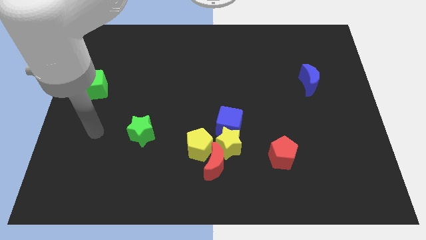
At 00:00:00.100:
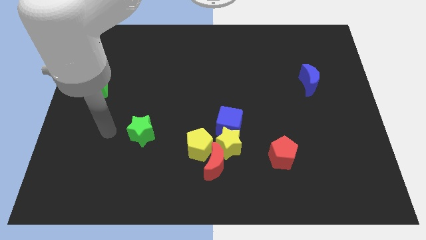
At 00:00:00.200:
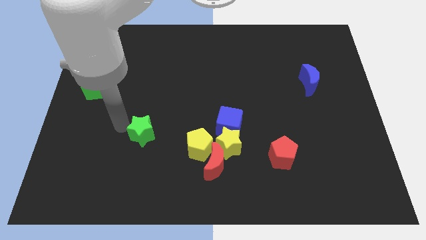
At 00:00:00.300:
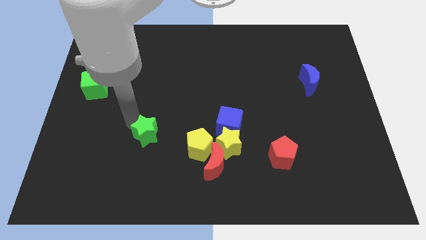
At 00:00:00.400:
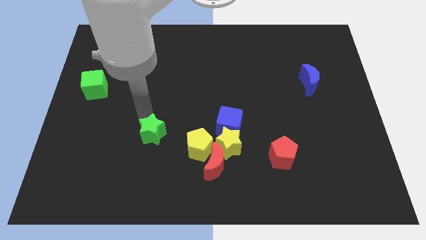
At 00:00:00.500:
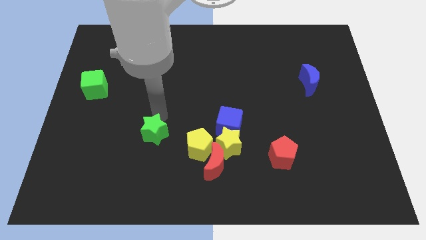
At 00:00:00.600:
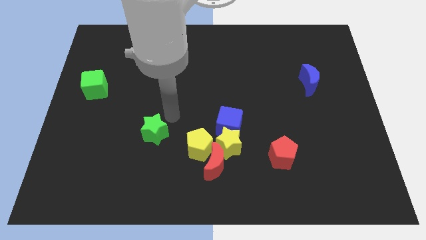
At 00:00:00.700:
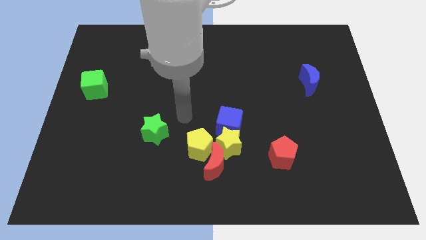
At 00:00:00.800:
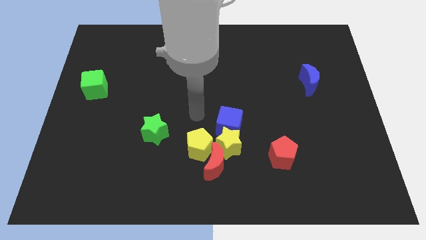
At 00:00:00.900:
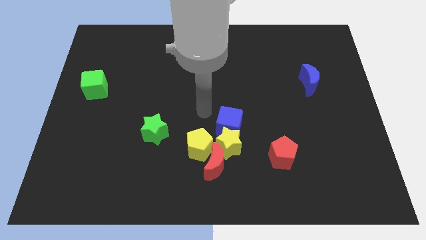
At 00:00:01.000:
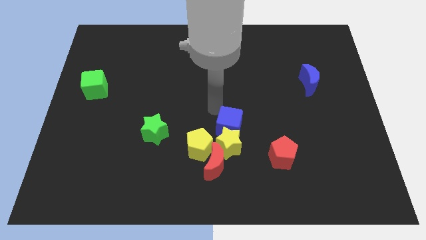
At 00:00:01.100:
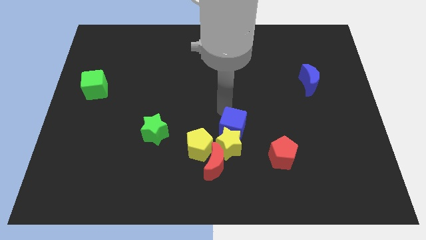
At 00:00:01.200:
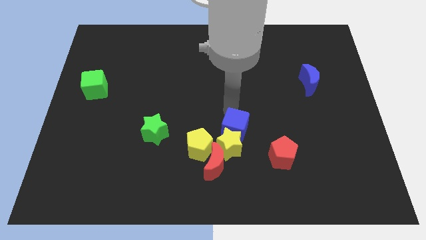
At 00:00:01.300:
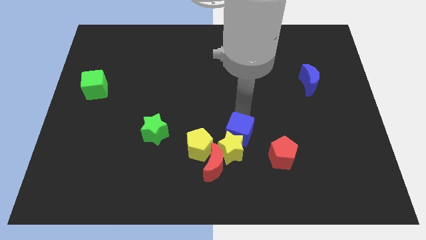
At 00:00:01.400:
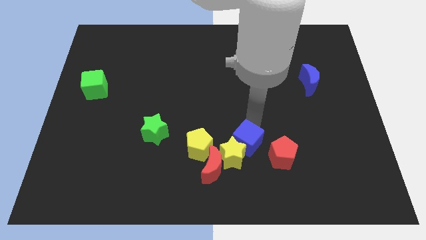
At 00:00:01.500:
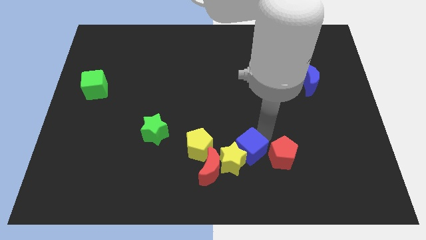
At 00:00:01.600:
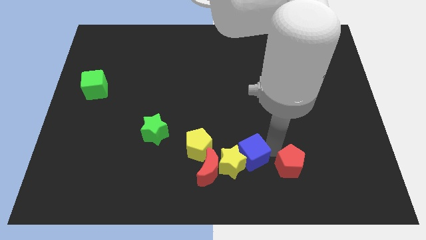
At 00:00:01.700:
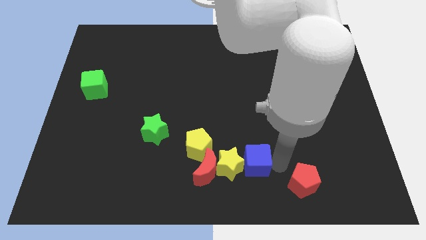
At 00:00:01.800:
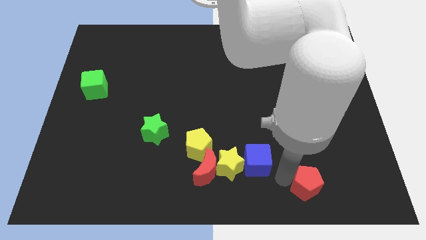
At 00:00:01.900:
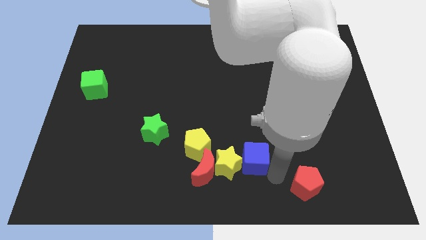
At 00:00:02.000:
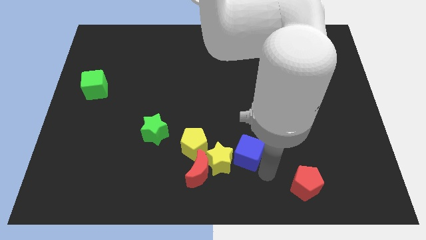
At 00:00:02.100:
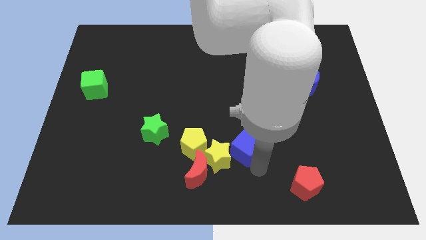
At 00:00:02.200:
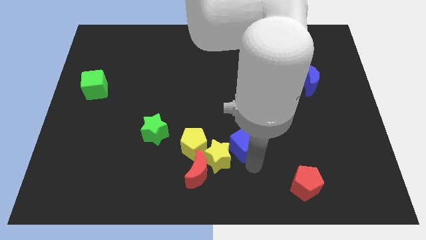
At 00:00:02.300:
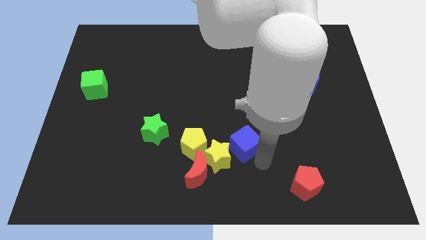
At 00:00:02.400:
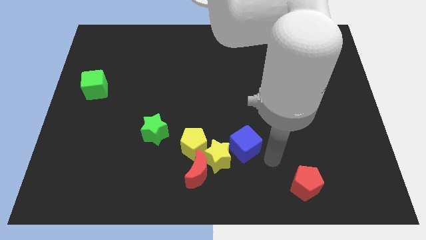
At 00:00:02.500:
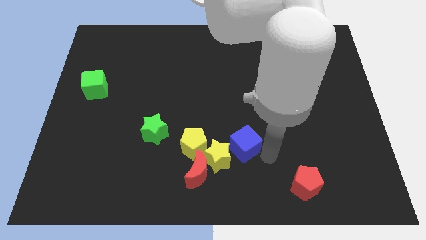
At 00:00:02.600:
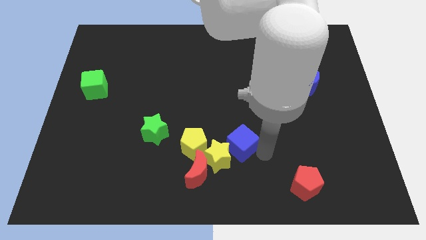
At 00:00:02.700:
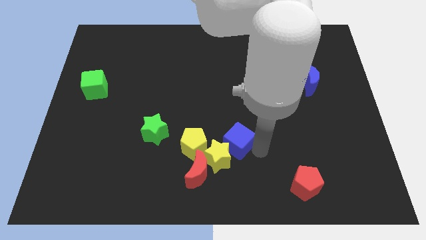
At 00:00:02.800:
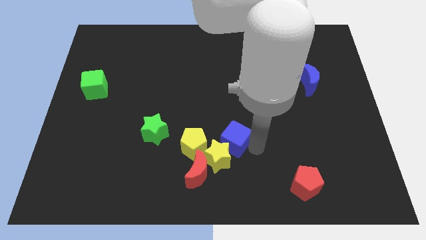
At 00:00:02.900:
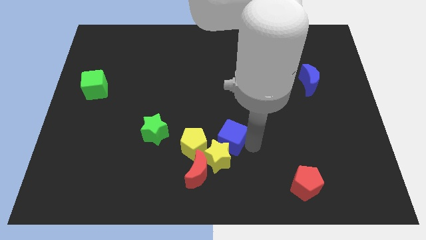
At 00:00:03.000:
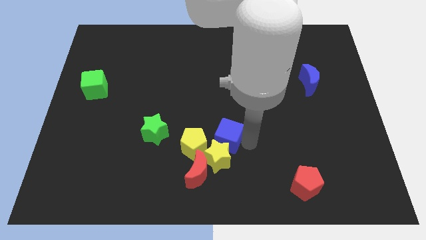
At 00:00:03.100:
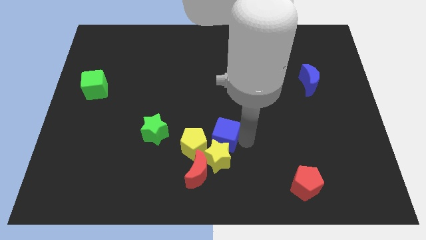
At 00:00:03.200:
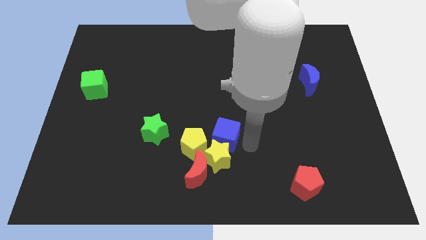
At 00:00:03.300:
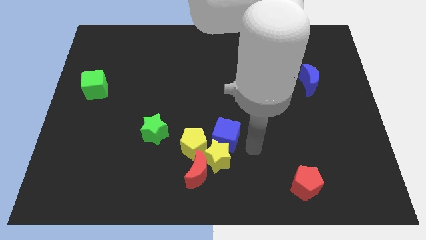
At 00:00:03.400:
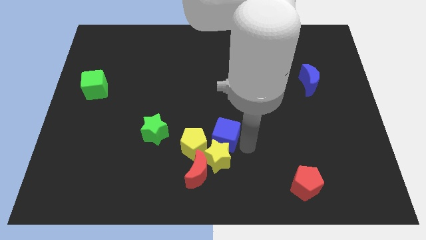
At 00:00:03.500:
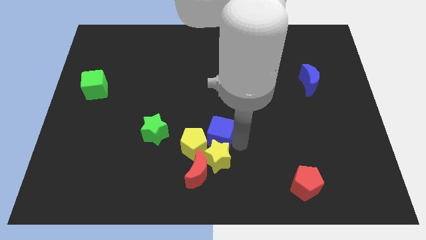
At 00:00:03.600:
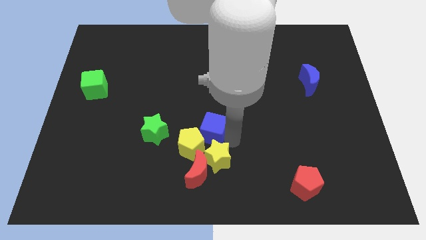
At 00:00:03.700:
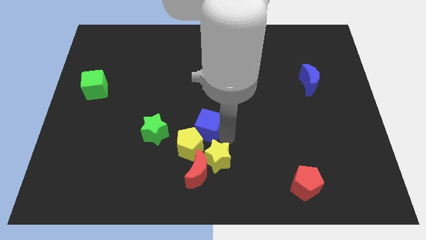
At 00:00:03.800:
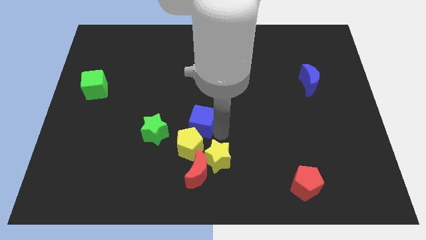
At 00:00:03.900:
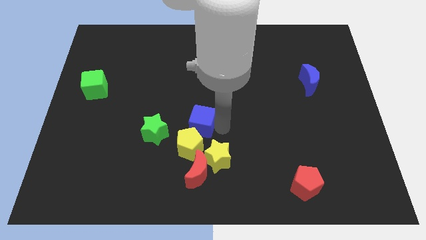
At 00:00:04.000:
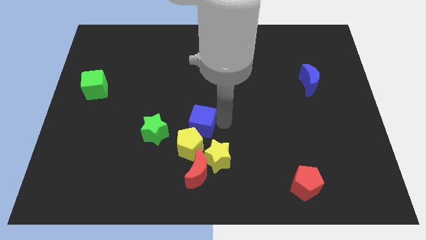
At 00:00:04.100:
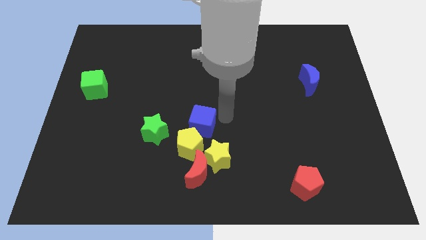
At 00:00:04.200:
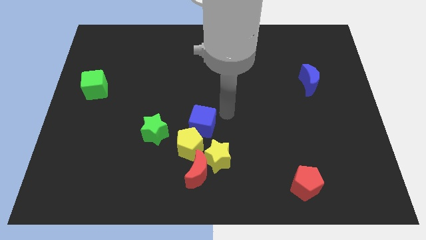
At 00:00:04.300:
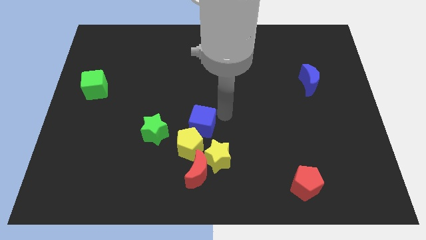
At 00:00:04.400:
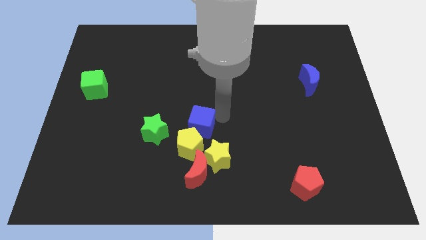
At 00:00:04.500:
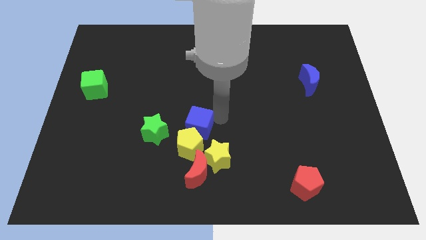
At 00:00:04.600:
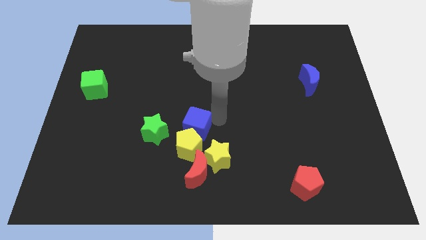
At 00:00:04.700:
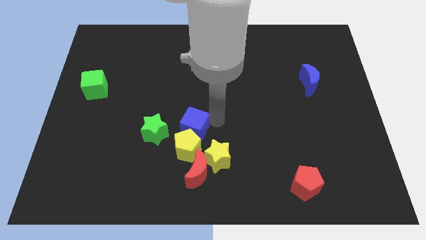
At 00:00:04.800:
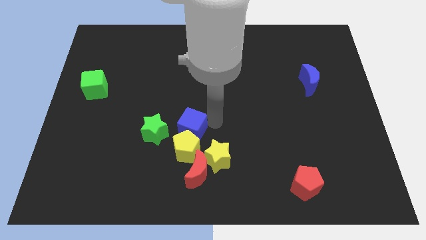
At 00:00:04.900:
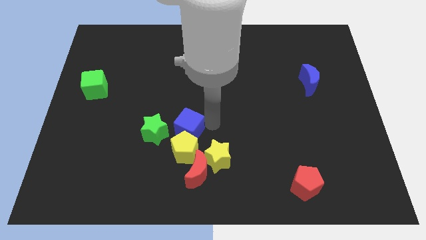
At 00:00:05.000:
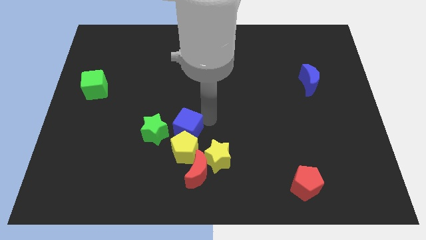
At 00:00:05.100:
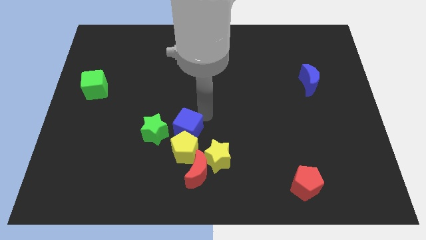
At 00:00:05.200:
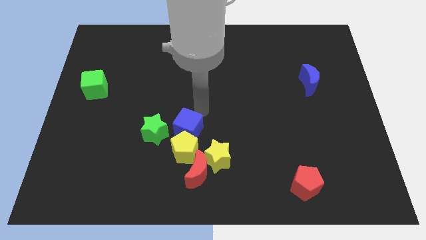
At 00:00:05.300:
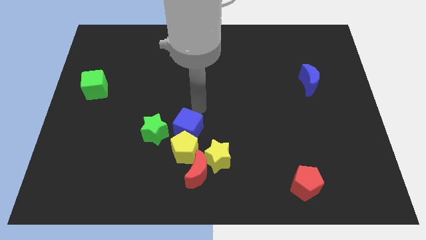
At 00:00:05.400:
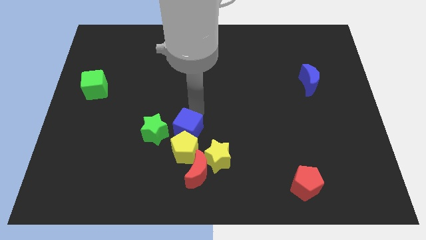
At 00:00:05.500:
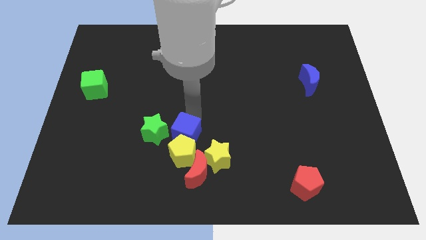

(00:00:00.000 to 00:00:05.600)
slide the blue cube diagonally down and to the right of the green star

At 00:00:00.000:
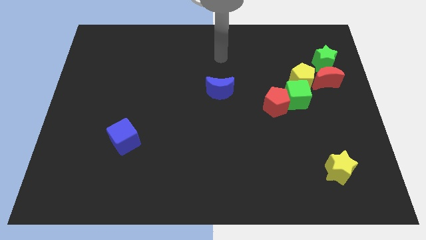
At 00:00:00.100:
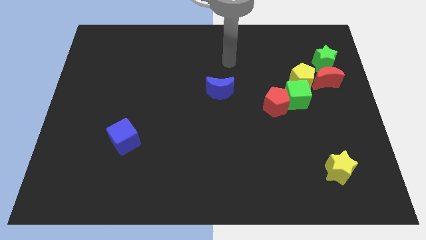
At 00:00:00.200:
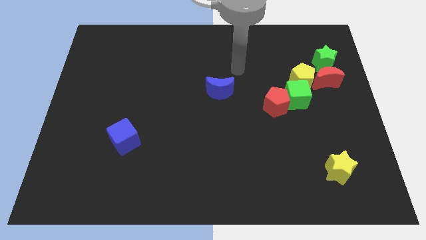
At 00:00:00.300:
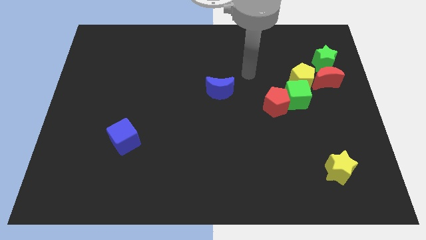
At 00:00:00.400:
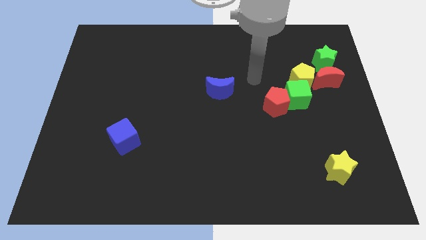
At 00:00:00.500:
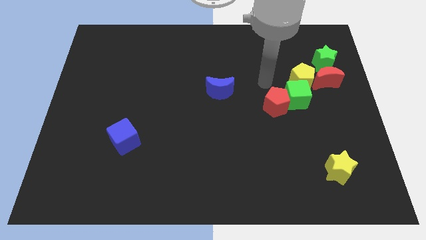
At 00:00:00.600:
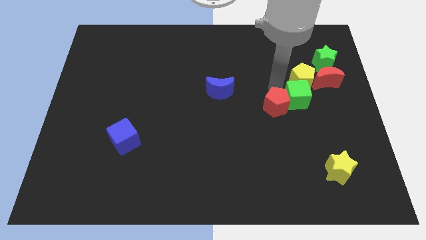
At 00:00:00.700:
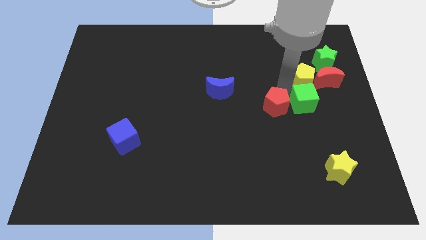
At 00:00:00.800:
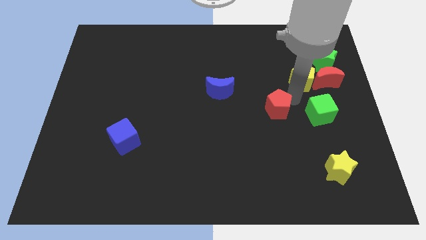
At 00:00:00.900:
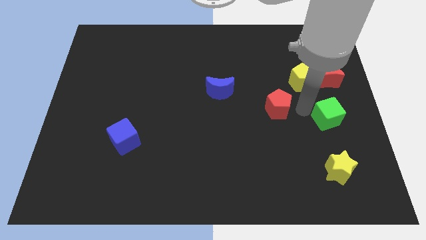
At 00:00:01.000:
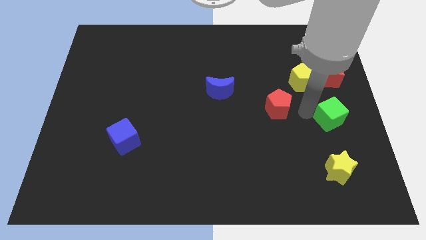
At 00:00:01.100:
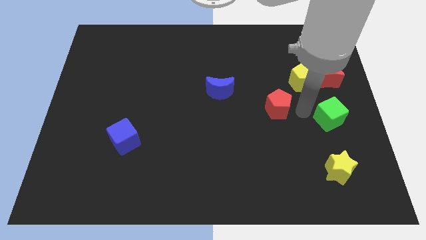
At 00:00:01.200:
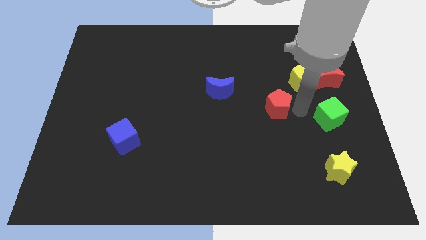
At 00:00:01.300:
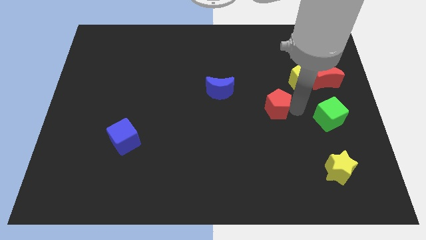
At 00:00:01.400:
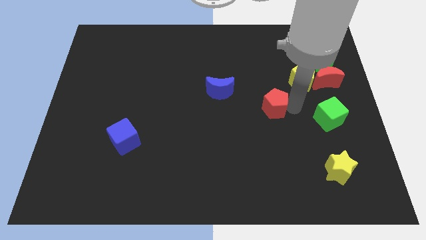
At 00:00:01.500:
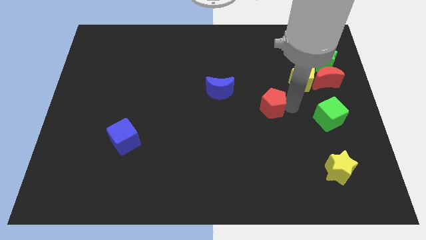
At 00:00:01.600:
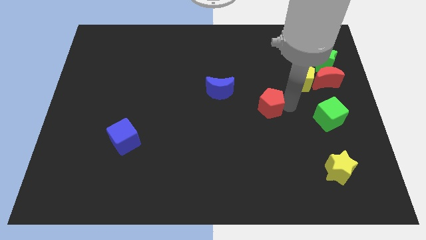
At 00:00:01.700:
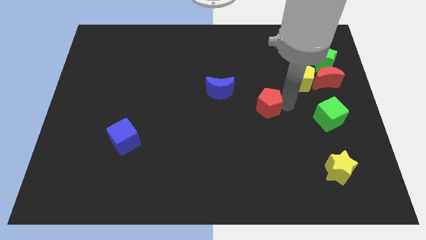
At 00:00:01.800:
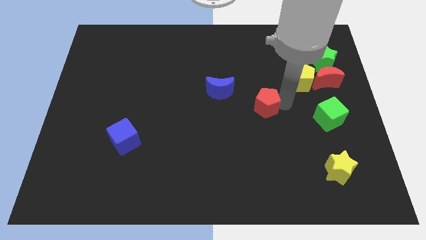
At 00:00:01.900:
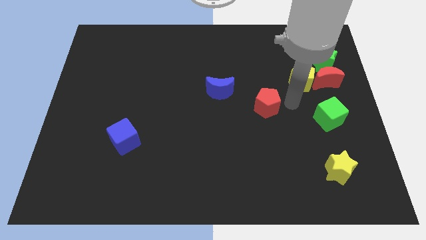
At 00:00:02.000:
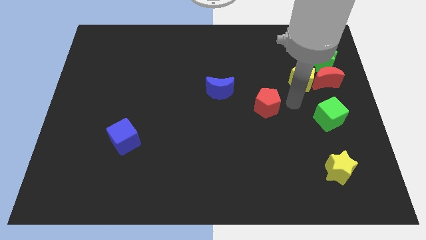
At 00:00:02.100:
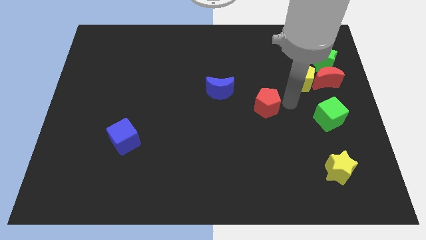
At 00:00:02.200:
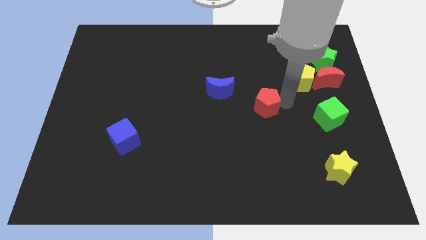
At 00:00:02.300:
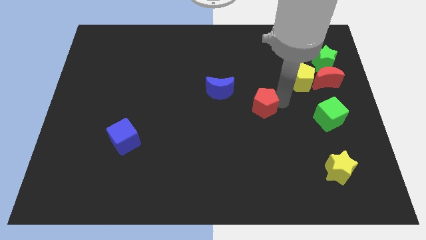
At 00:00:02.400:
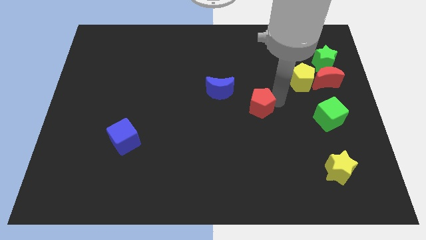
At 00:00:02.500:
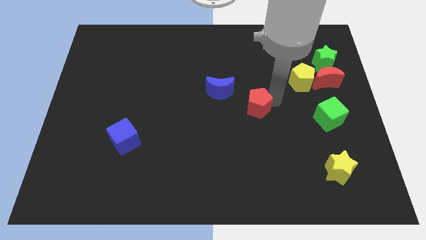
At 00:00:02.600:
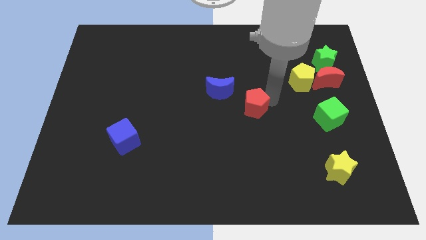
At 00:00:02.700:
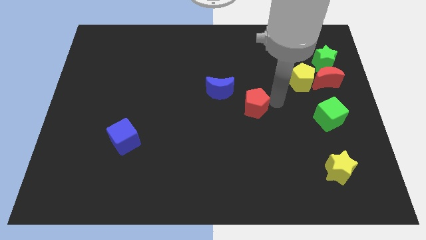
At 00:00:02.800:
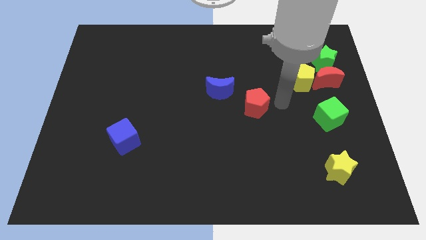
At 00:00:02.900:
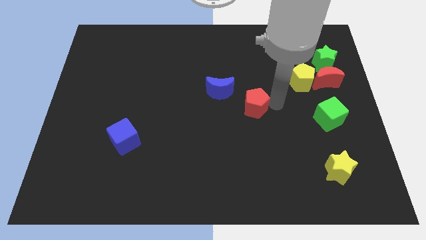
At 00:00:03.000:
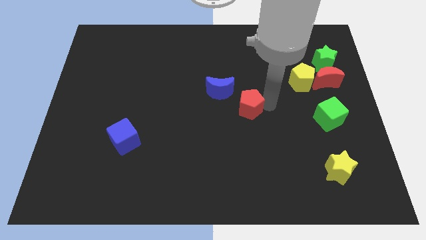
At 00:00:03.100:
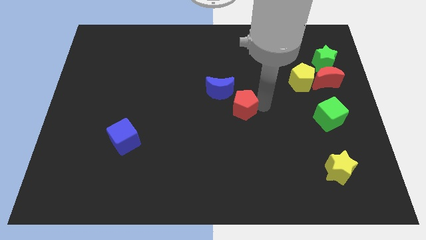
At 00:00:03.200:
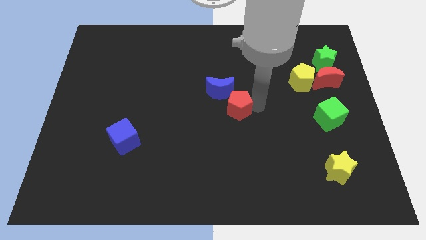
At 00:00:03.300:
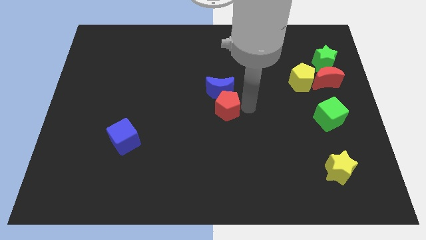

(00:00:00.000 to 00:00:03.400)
slide the red pentagon to the bottom left side of the blue moon
